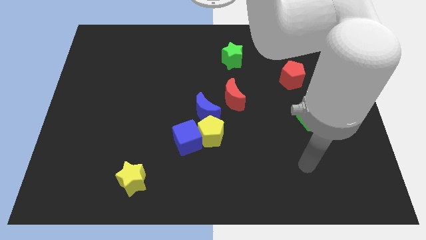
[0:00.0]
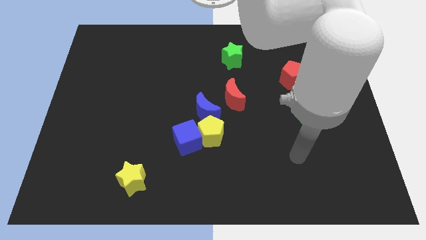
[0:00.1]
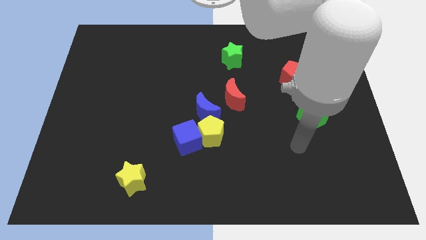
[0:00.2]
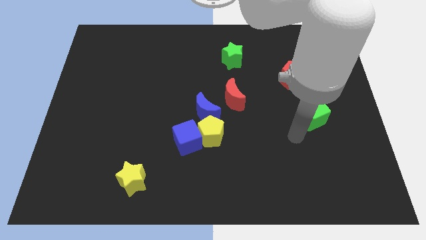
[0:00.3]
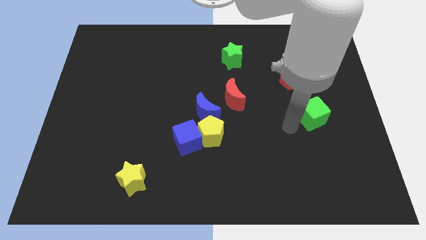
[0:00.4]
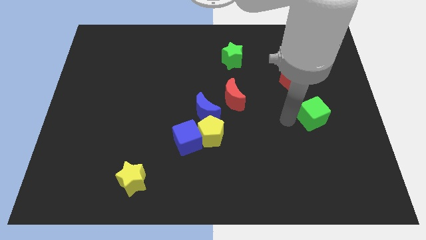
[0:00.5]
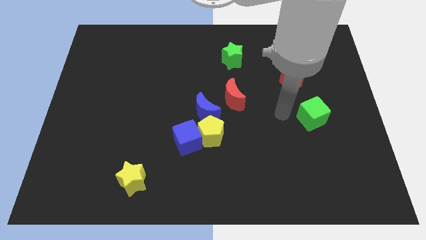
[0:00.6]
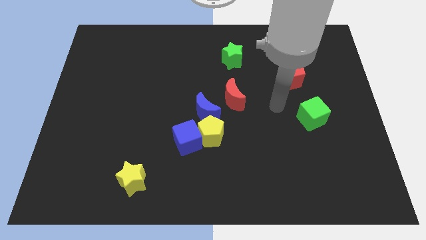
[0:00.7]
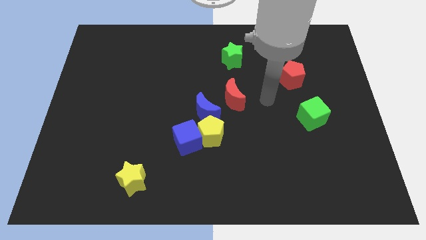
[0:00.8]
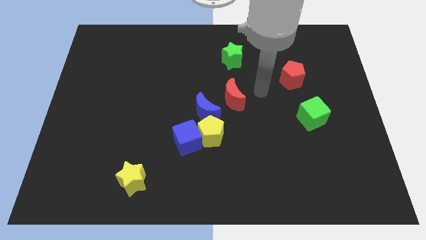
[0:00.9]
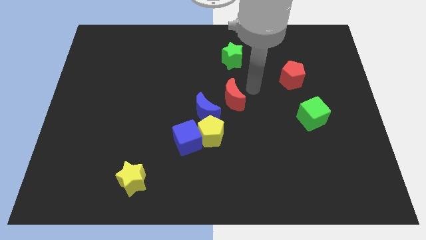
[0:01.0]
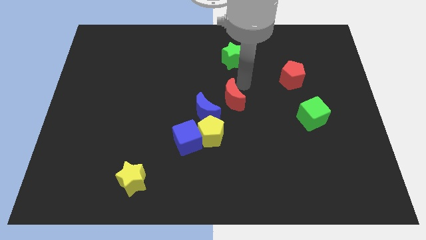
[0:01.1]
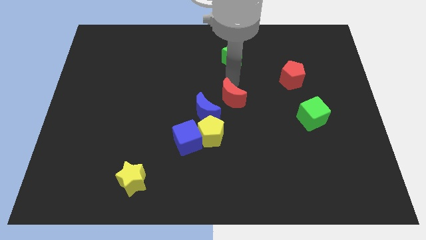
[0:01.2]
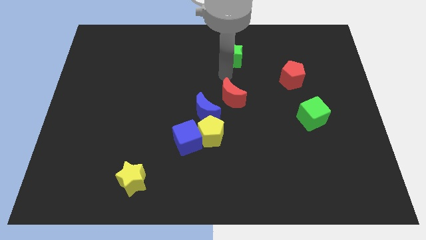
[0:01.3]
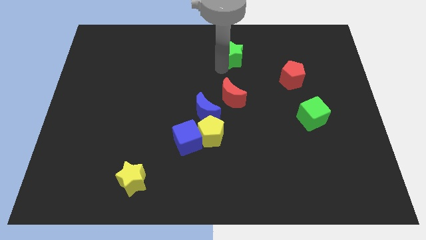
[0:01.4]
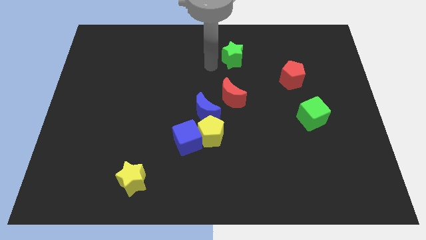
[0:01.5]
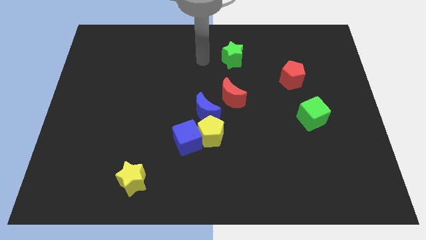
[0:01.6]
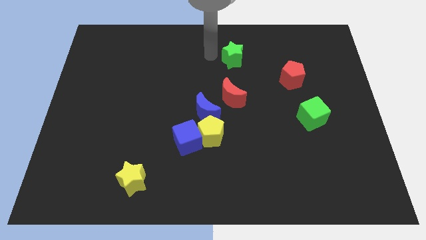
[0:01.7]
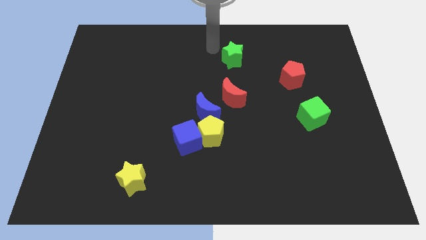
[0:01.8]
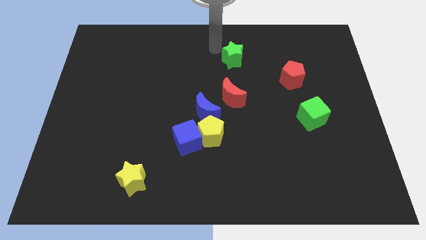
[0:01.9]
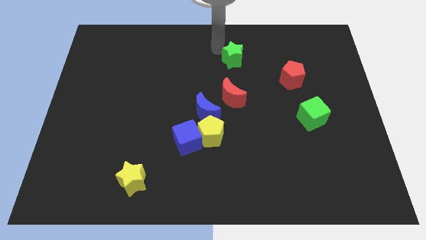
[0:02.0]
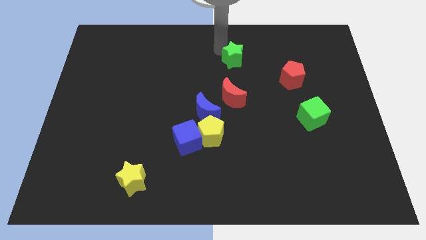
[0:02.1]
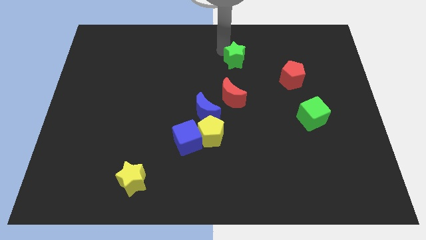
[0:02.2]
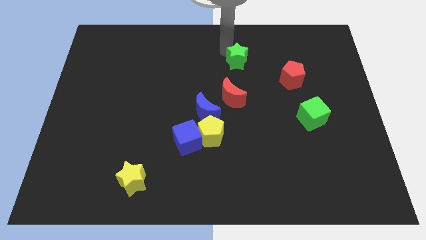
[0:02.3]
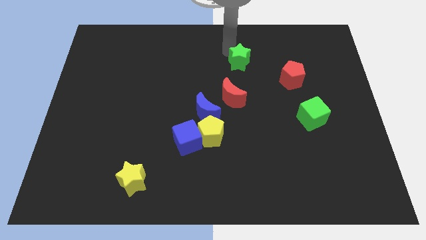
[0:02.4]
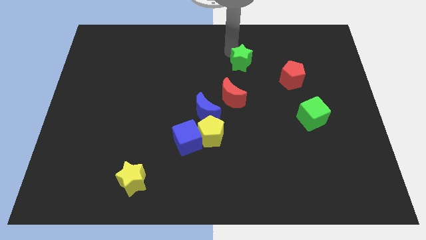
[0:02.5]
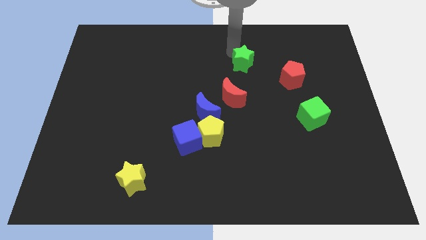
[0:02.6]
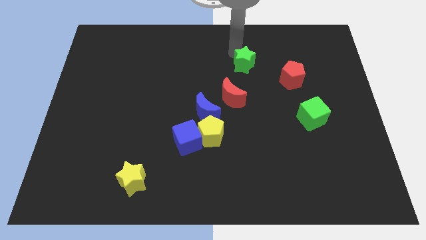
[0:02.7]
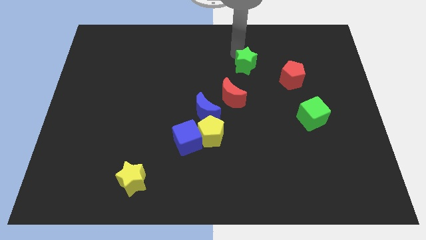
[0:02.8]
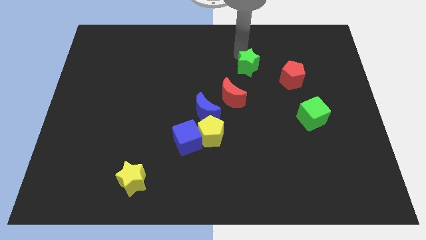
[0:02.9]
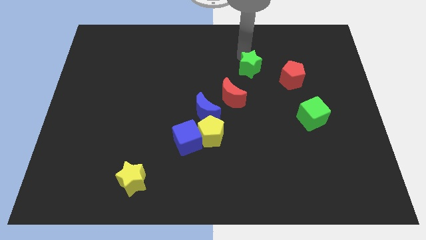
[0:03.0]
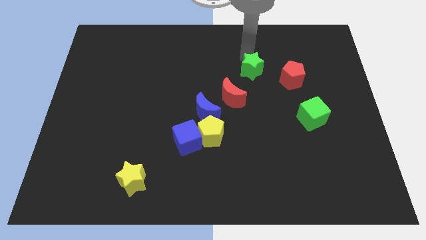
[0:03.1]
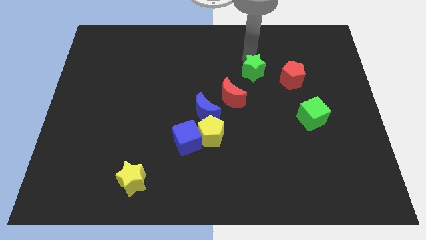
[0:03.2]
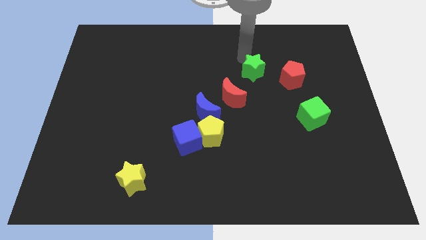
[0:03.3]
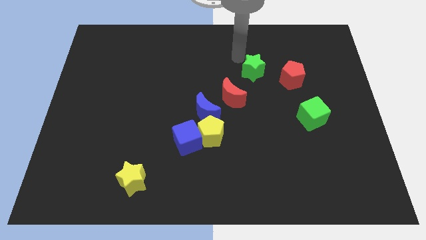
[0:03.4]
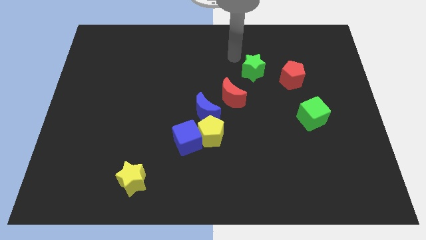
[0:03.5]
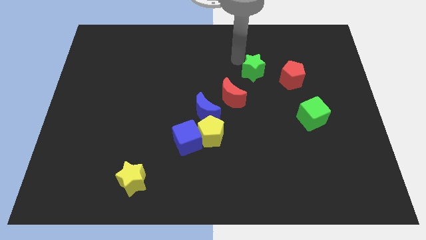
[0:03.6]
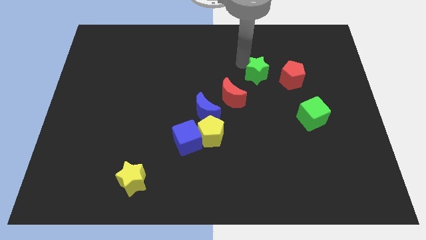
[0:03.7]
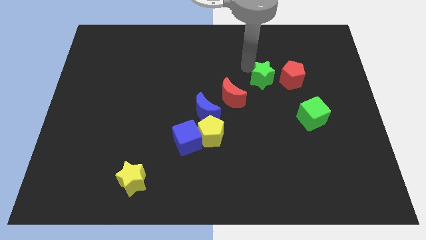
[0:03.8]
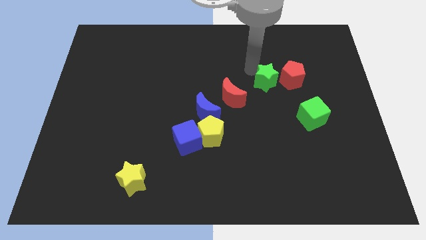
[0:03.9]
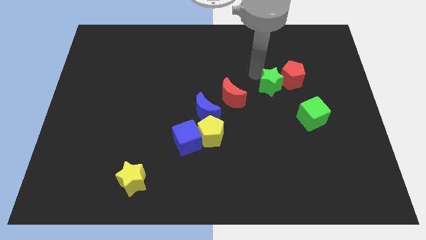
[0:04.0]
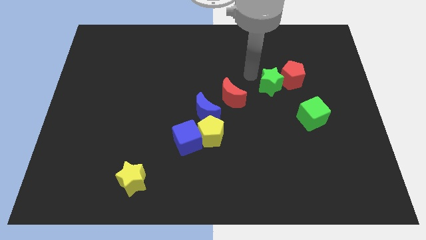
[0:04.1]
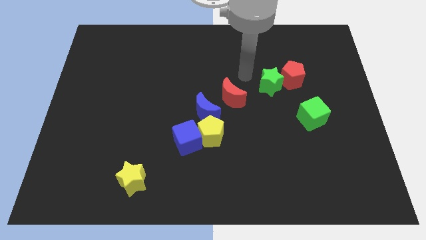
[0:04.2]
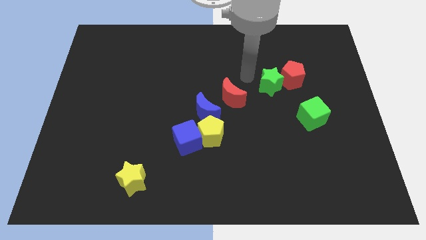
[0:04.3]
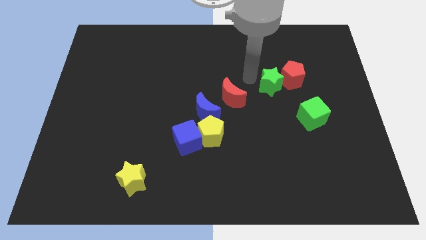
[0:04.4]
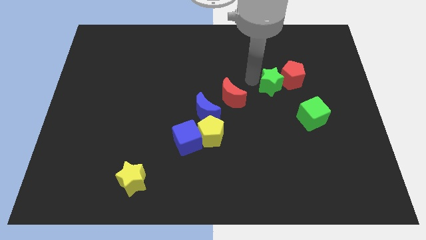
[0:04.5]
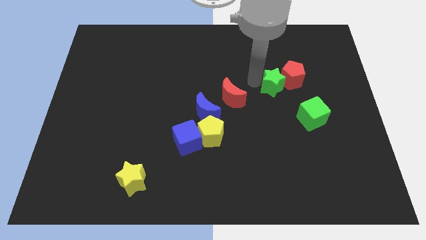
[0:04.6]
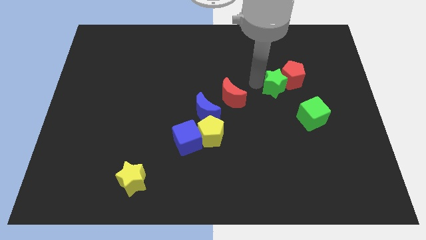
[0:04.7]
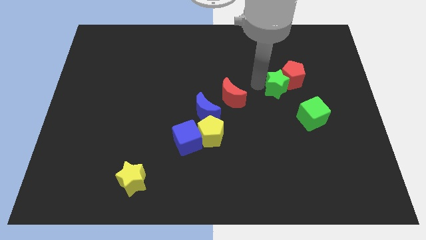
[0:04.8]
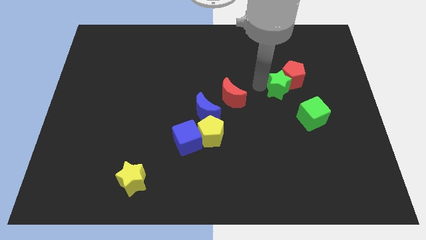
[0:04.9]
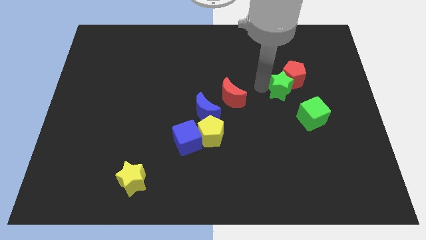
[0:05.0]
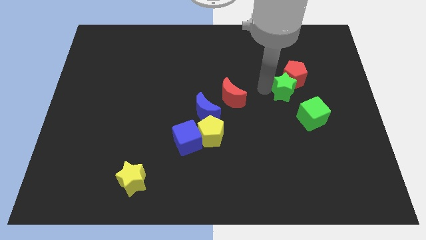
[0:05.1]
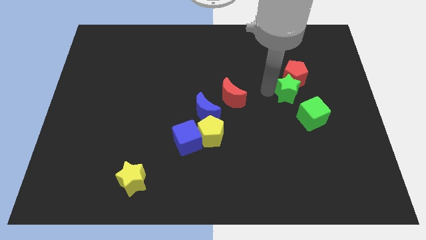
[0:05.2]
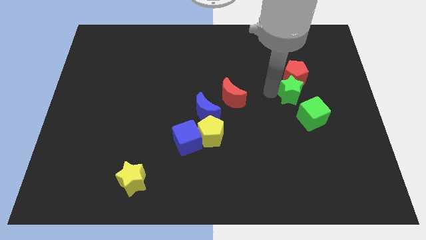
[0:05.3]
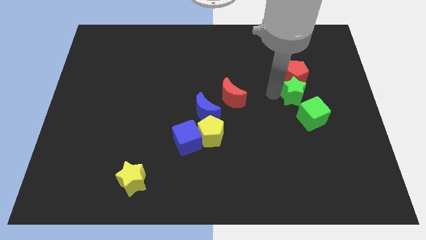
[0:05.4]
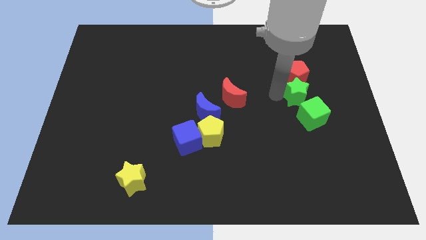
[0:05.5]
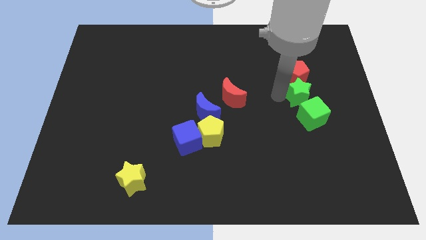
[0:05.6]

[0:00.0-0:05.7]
move the green star downwards and to the right

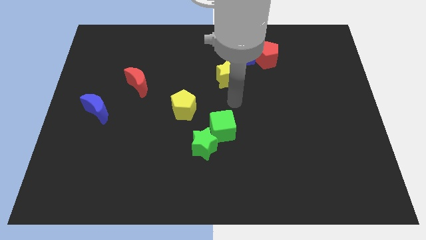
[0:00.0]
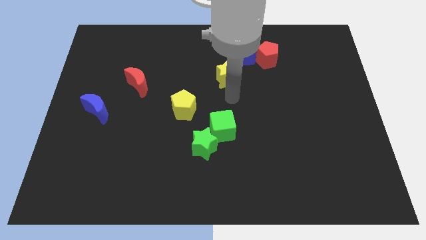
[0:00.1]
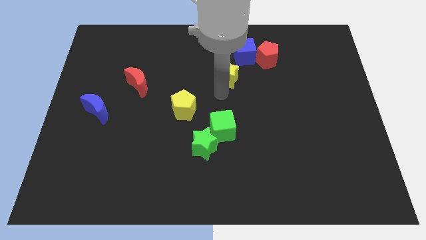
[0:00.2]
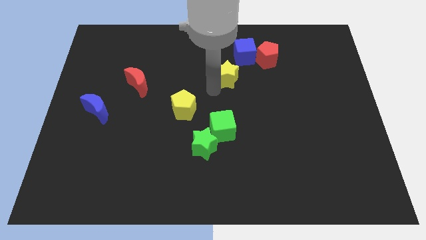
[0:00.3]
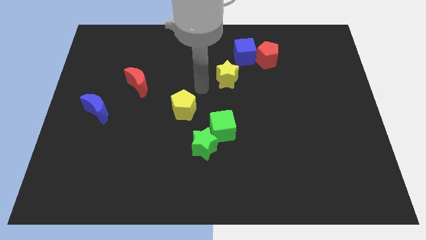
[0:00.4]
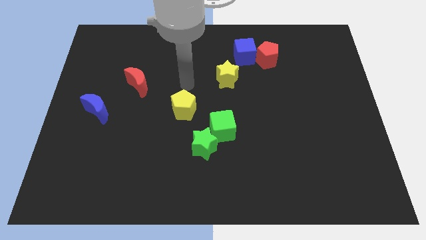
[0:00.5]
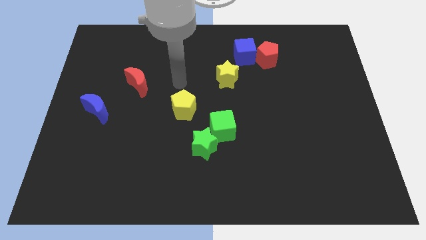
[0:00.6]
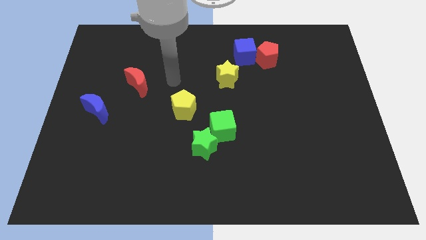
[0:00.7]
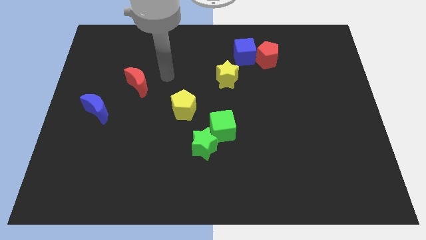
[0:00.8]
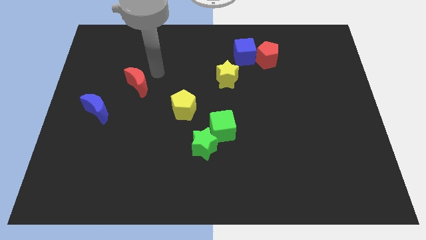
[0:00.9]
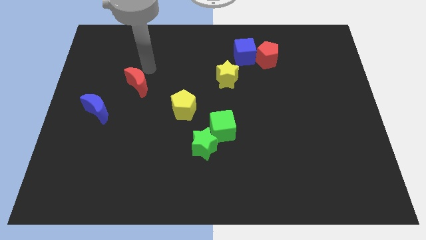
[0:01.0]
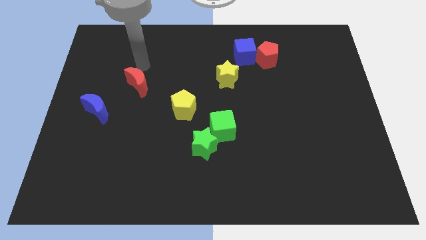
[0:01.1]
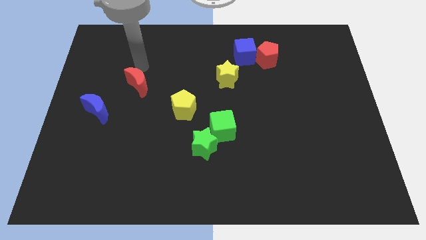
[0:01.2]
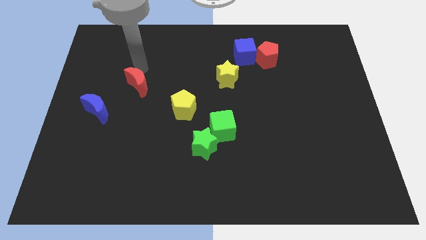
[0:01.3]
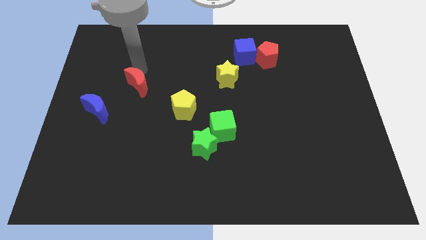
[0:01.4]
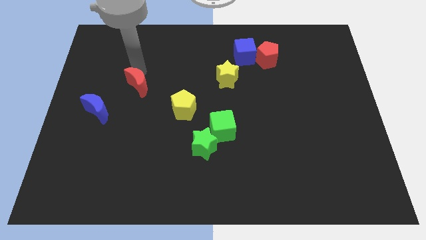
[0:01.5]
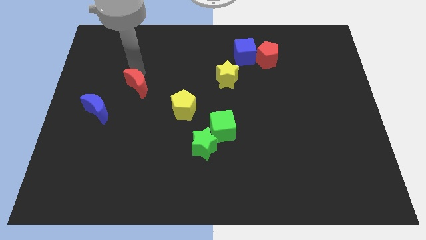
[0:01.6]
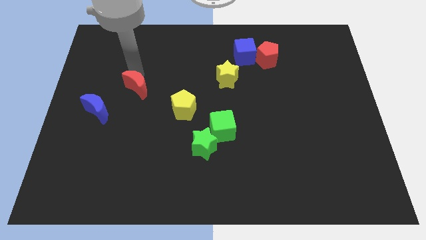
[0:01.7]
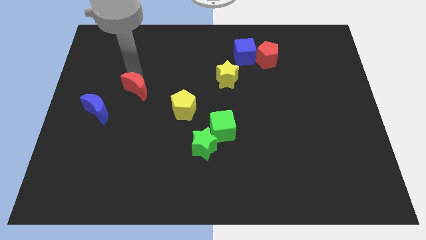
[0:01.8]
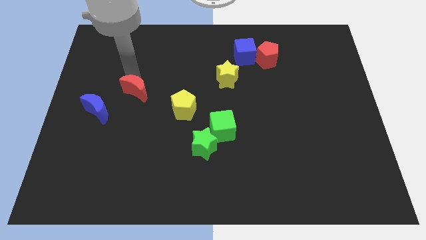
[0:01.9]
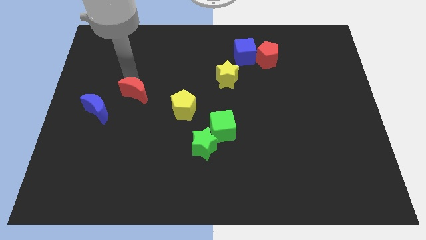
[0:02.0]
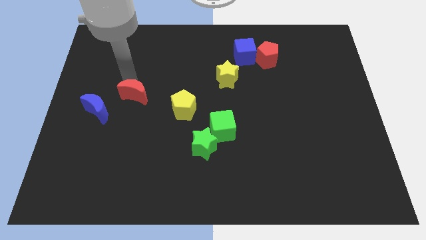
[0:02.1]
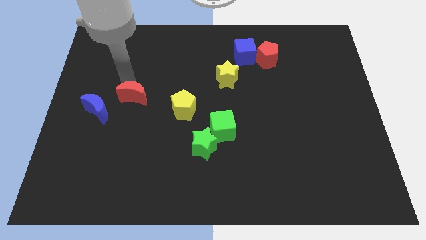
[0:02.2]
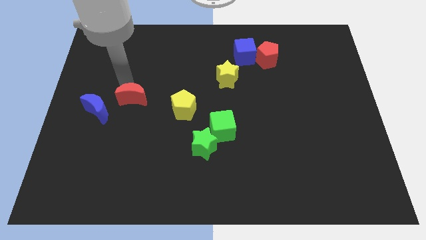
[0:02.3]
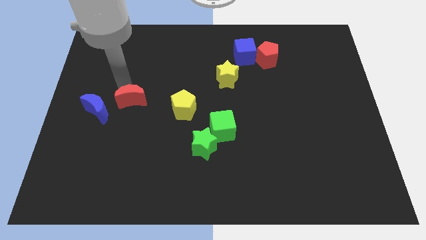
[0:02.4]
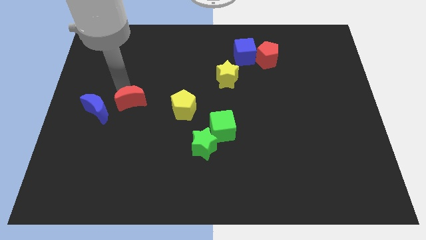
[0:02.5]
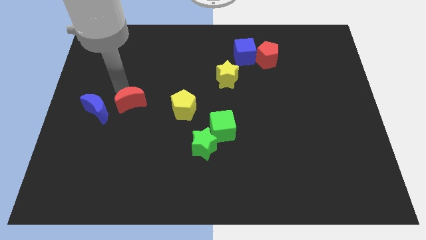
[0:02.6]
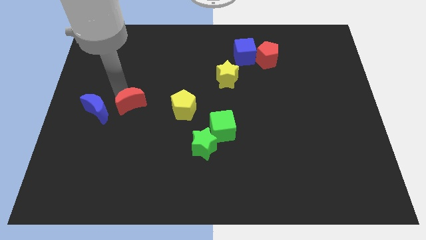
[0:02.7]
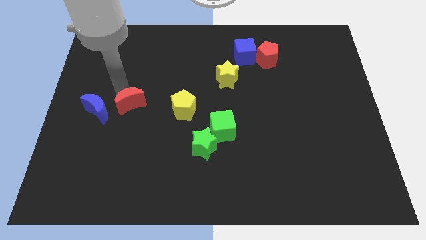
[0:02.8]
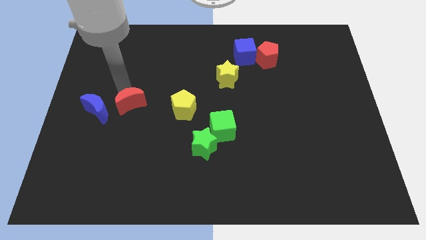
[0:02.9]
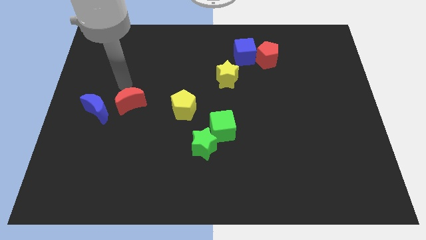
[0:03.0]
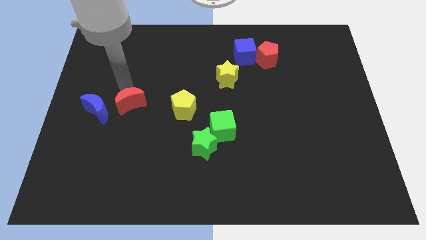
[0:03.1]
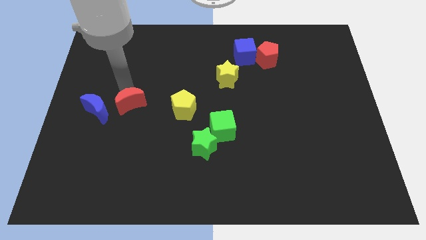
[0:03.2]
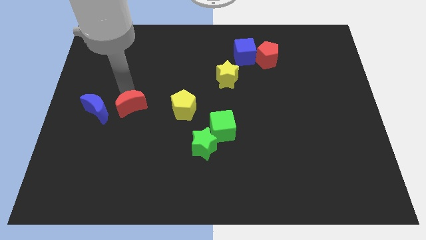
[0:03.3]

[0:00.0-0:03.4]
slide the red moon downwards a bit
